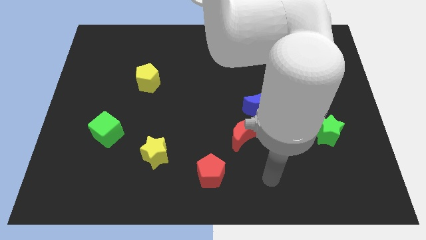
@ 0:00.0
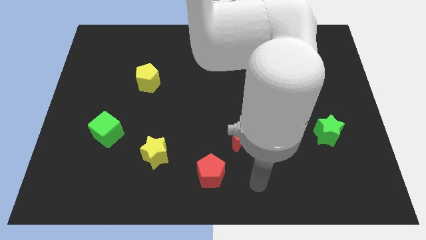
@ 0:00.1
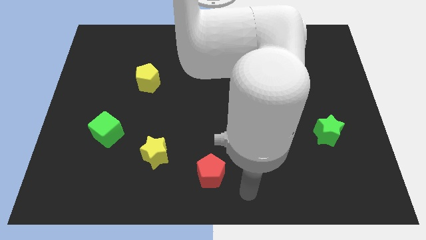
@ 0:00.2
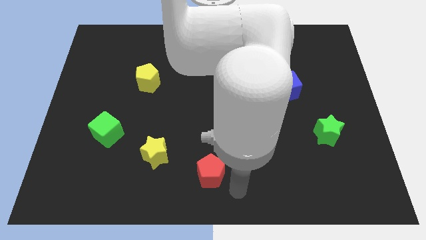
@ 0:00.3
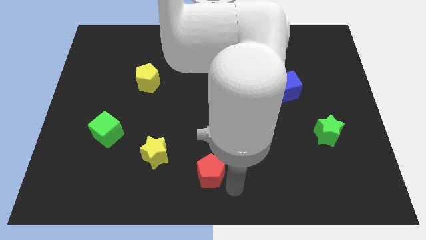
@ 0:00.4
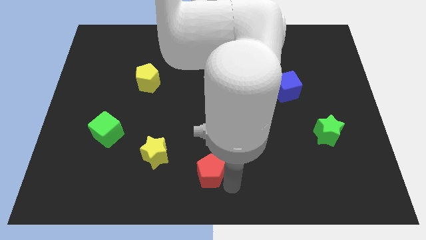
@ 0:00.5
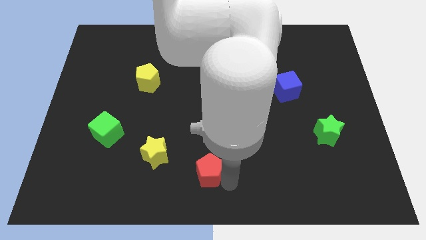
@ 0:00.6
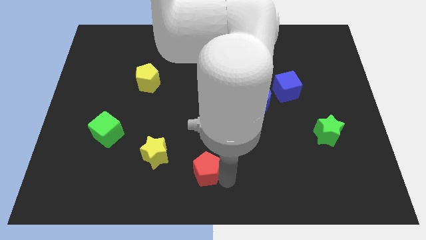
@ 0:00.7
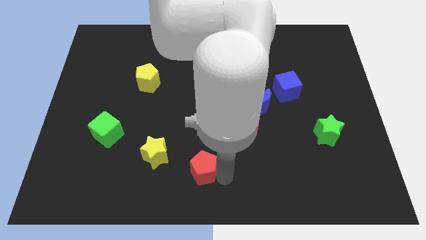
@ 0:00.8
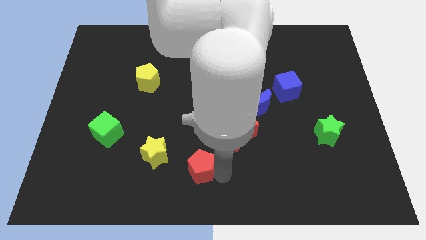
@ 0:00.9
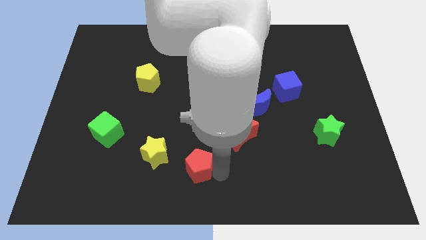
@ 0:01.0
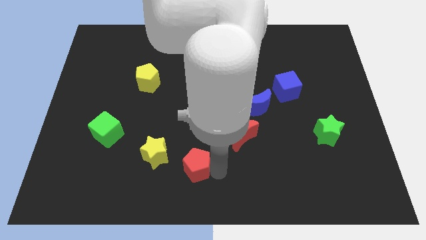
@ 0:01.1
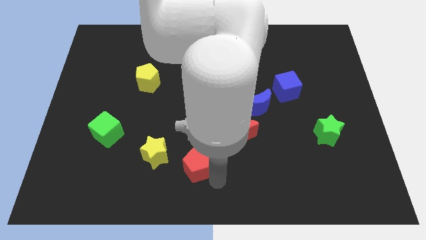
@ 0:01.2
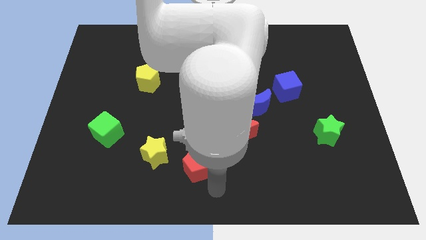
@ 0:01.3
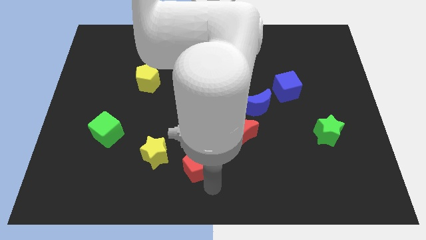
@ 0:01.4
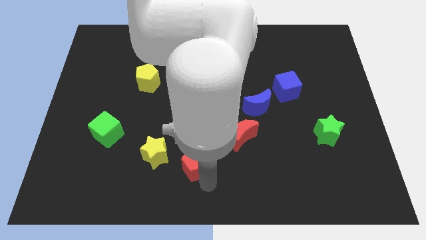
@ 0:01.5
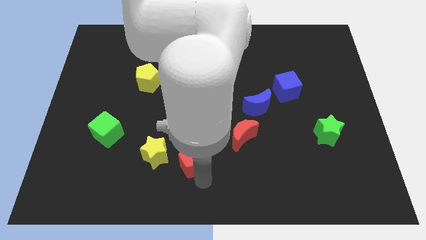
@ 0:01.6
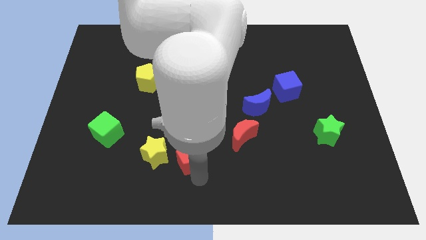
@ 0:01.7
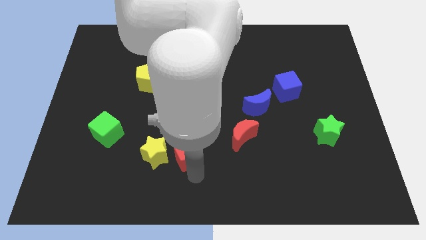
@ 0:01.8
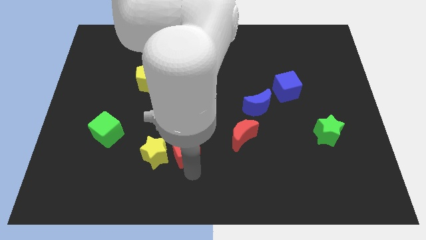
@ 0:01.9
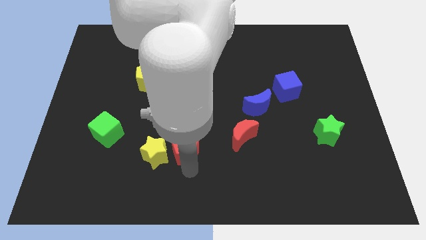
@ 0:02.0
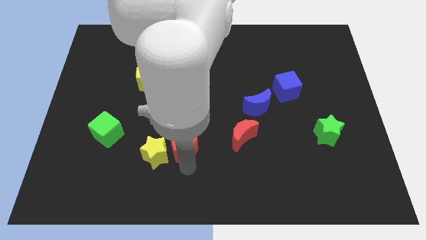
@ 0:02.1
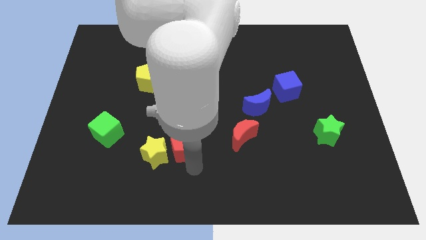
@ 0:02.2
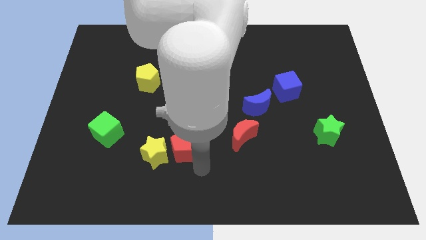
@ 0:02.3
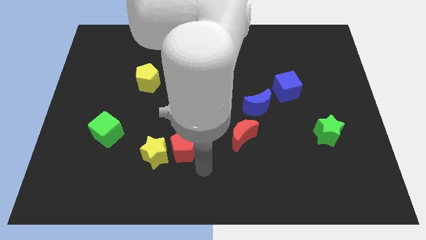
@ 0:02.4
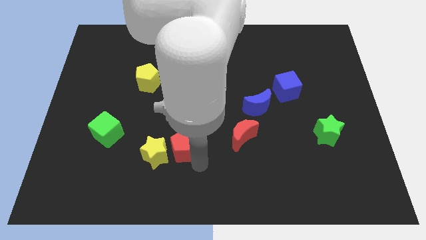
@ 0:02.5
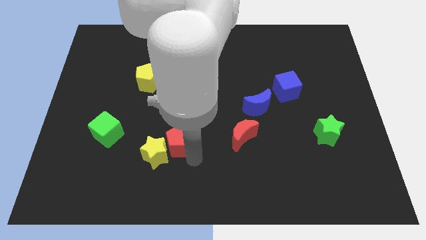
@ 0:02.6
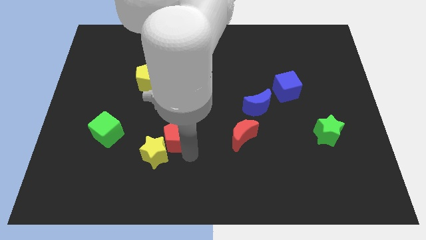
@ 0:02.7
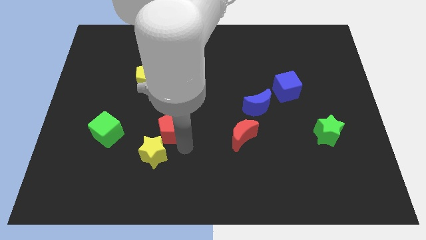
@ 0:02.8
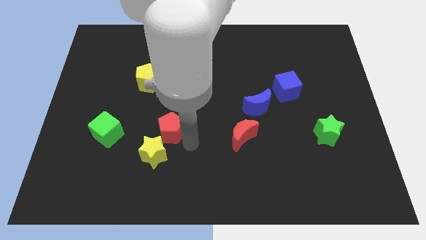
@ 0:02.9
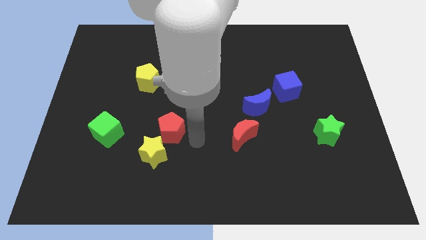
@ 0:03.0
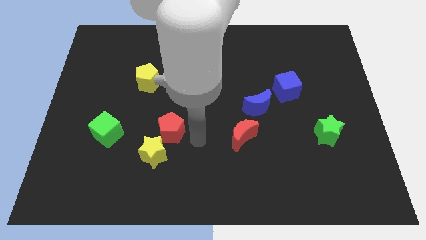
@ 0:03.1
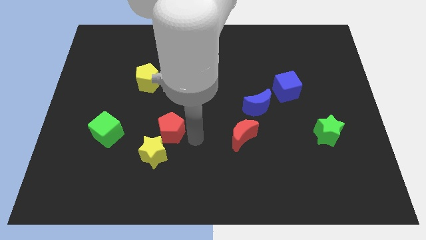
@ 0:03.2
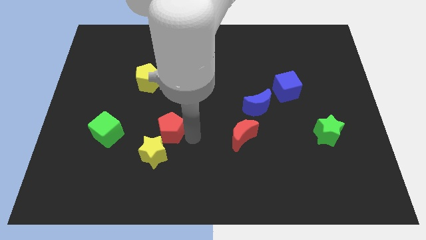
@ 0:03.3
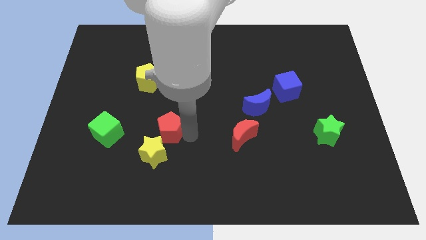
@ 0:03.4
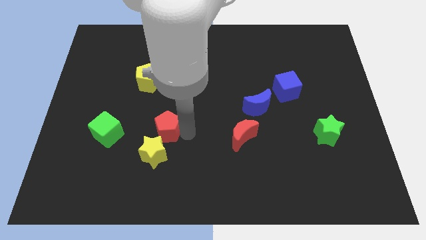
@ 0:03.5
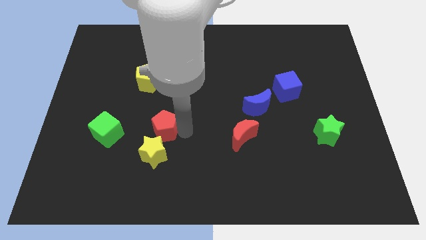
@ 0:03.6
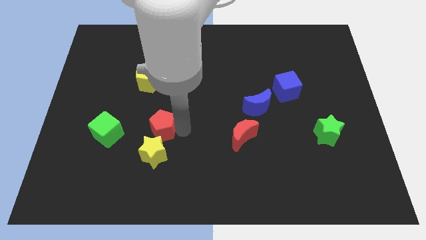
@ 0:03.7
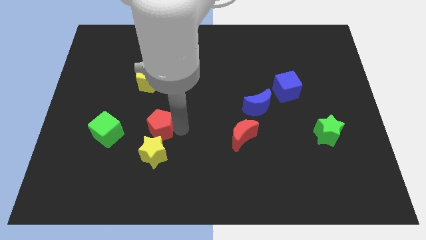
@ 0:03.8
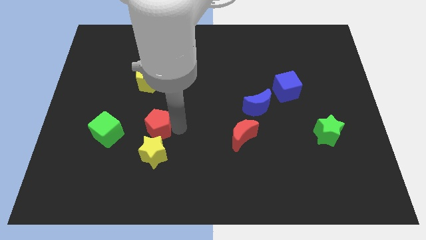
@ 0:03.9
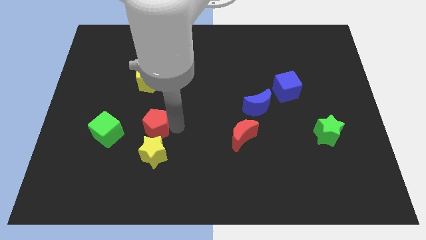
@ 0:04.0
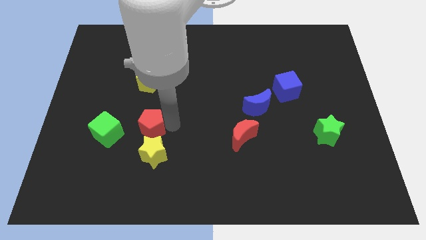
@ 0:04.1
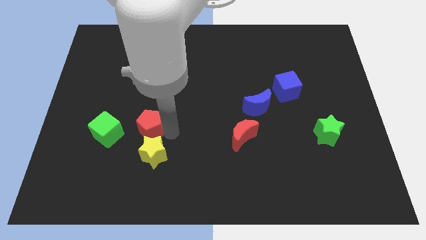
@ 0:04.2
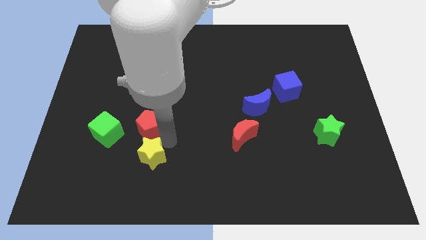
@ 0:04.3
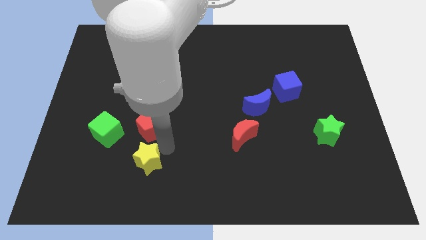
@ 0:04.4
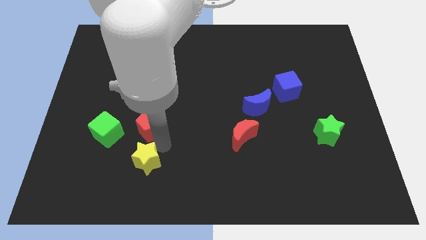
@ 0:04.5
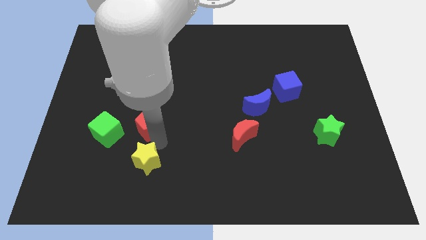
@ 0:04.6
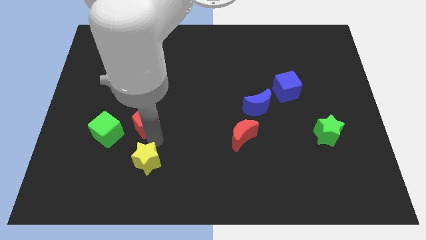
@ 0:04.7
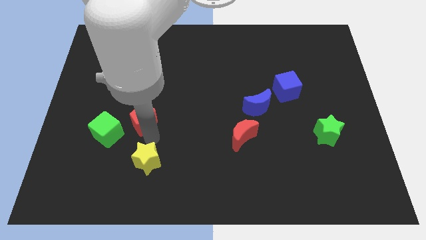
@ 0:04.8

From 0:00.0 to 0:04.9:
slide the red pentagon upwards and to the left

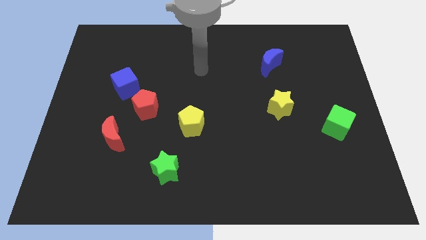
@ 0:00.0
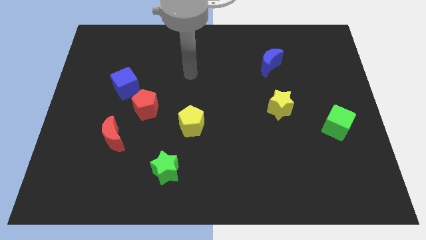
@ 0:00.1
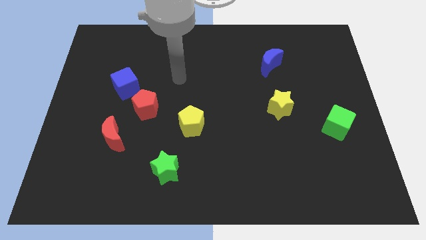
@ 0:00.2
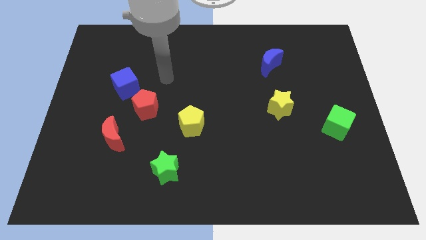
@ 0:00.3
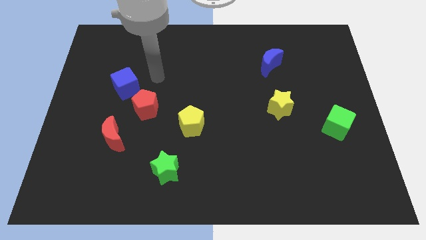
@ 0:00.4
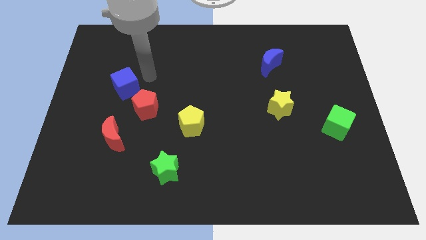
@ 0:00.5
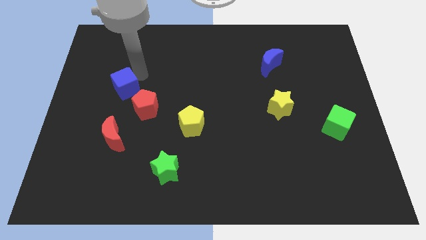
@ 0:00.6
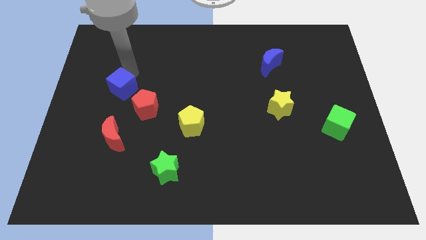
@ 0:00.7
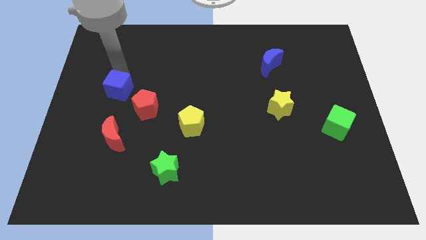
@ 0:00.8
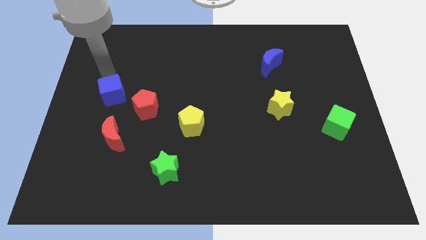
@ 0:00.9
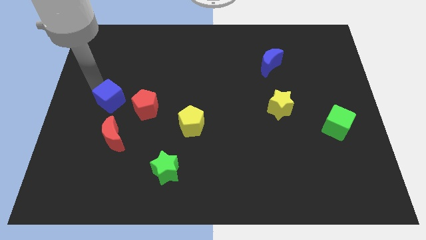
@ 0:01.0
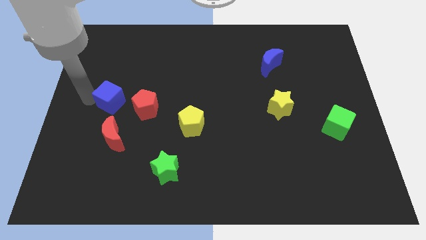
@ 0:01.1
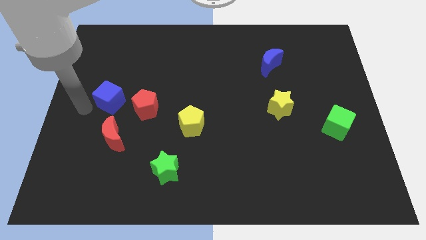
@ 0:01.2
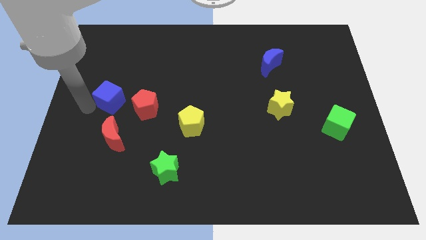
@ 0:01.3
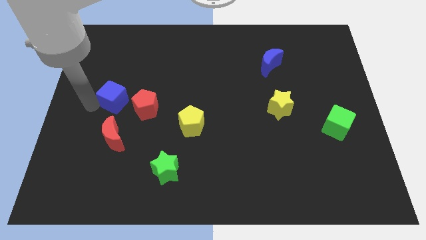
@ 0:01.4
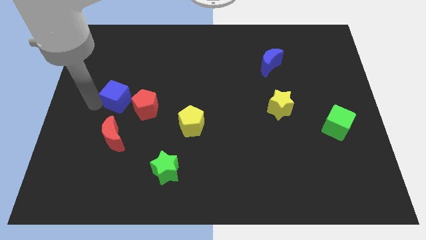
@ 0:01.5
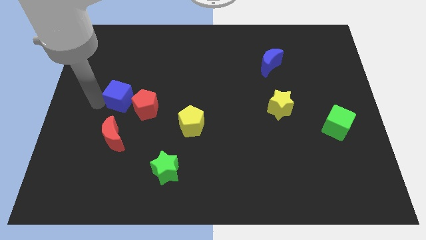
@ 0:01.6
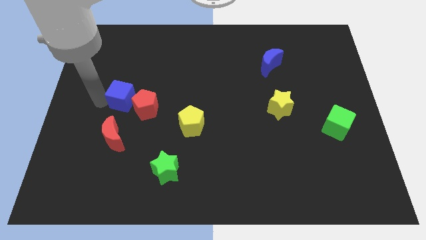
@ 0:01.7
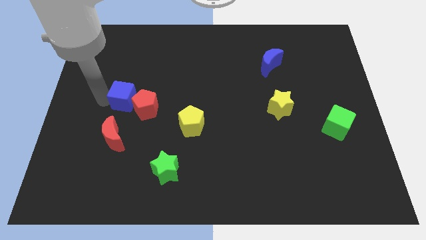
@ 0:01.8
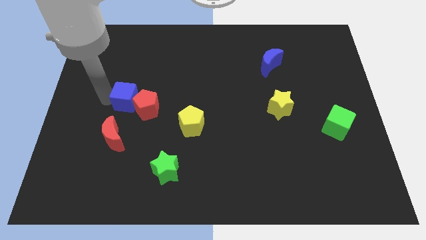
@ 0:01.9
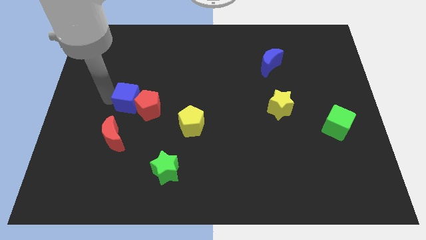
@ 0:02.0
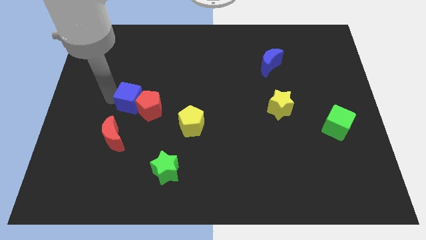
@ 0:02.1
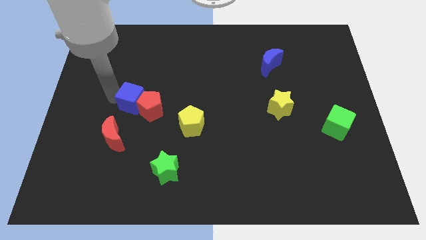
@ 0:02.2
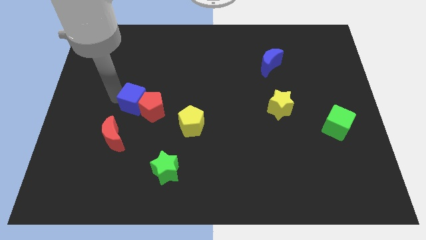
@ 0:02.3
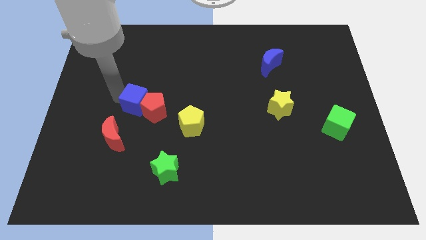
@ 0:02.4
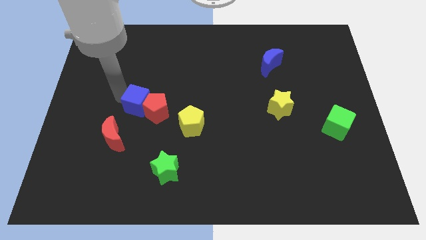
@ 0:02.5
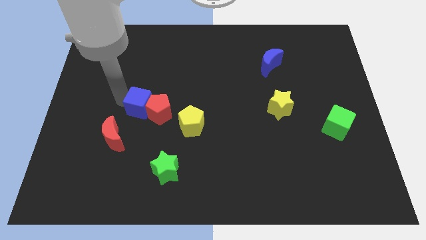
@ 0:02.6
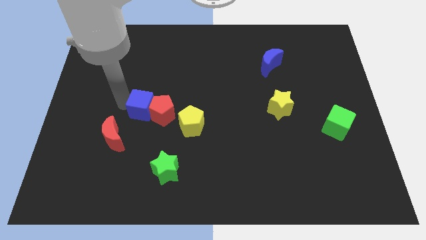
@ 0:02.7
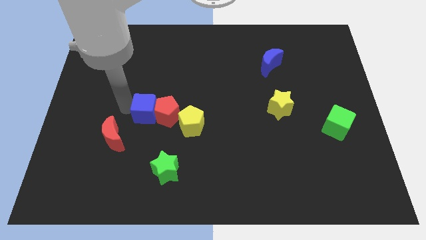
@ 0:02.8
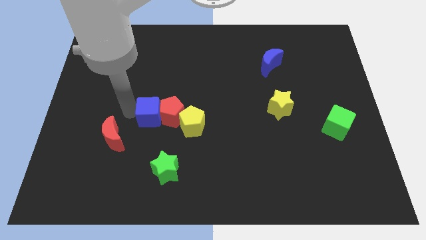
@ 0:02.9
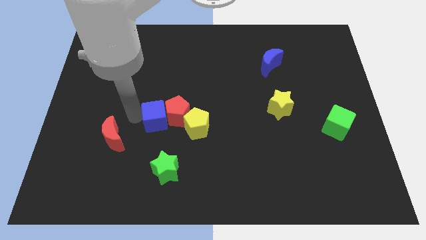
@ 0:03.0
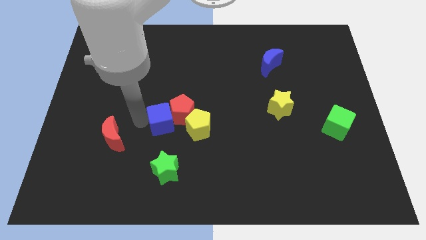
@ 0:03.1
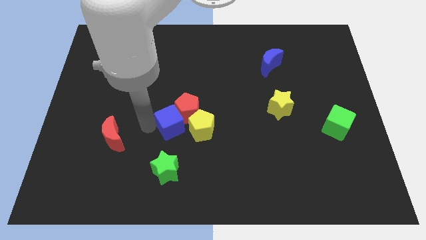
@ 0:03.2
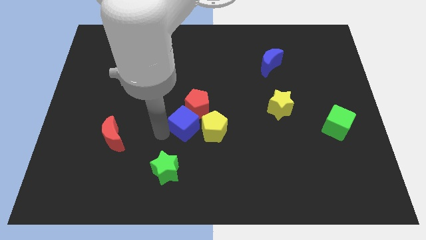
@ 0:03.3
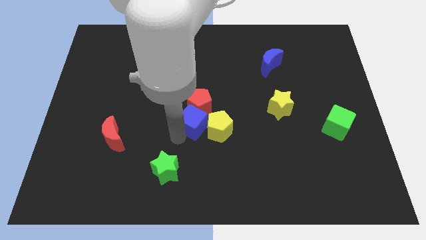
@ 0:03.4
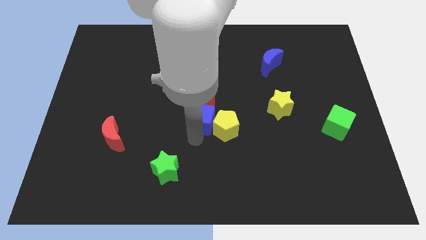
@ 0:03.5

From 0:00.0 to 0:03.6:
move the blue cube down and right diagonally
